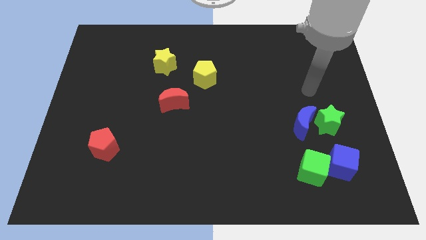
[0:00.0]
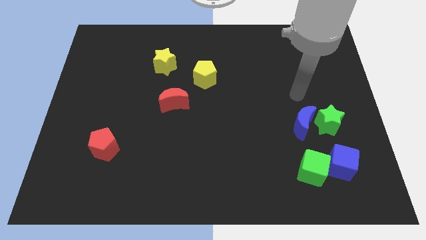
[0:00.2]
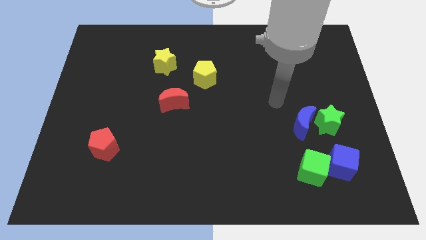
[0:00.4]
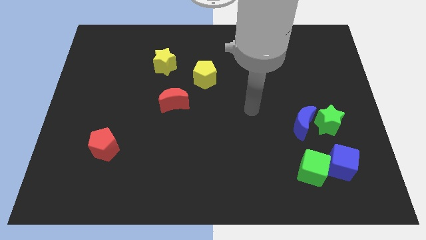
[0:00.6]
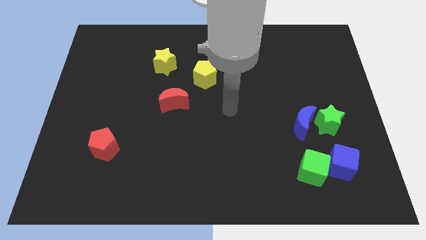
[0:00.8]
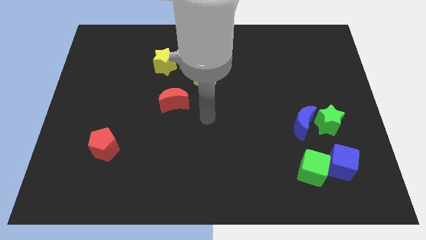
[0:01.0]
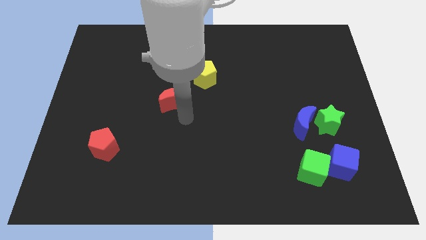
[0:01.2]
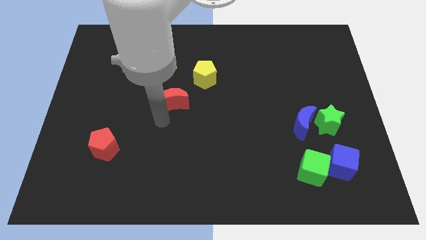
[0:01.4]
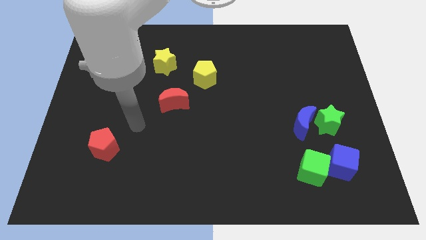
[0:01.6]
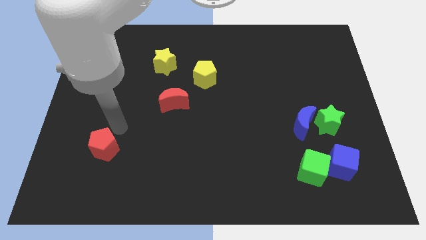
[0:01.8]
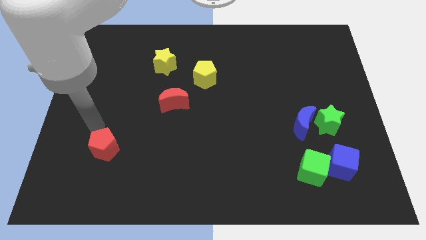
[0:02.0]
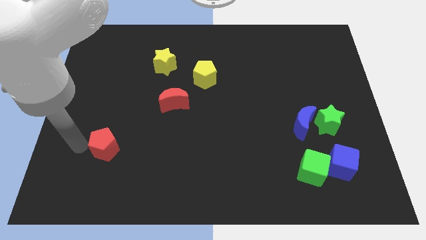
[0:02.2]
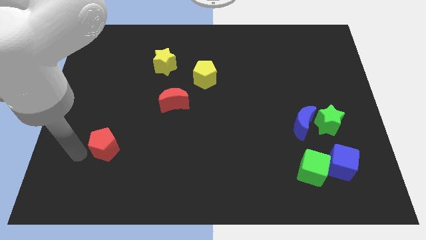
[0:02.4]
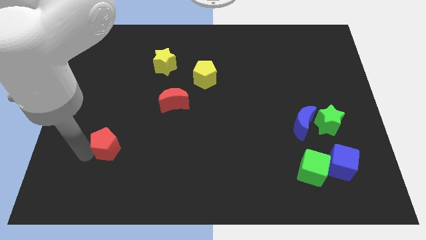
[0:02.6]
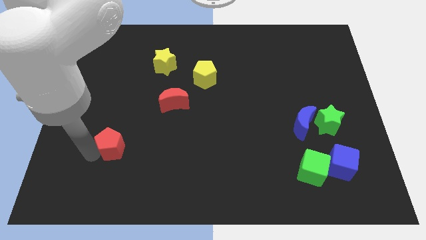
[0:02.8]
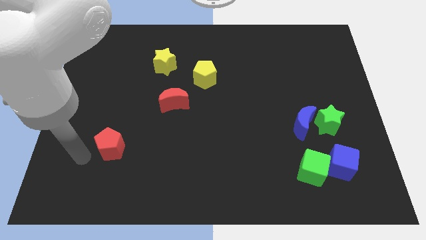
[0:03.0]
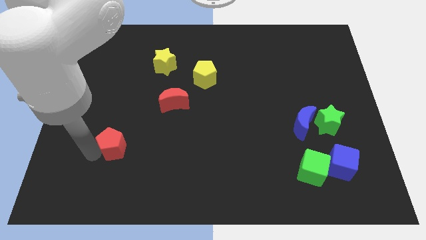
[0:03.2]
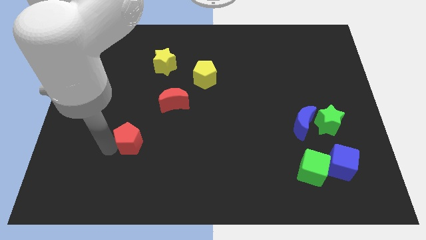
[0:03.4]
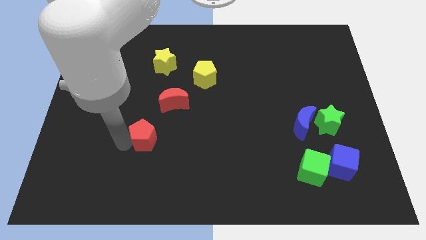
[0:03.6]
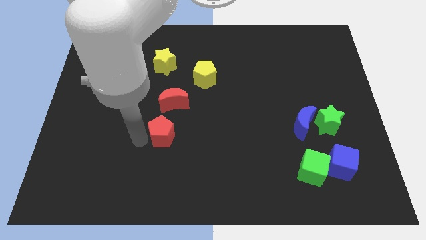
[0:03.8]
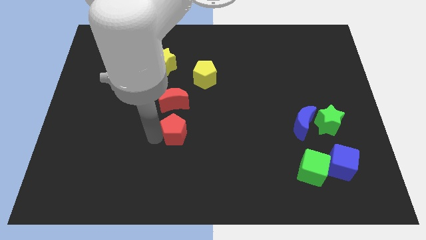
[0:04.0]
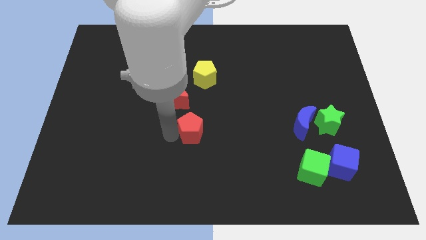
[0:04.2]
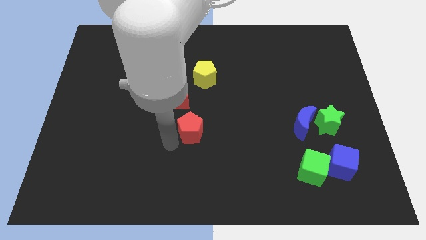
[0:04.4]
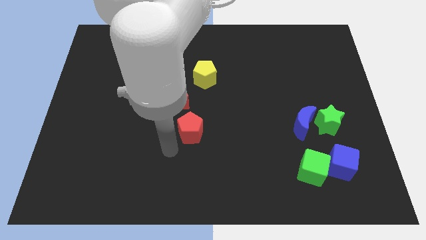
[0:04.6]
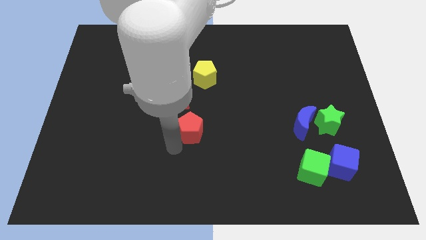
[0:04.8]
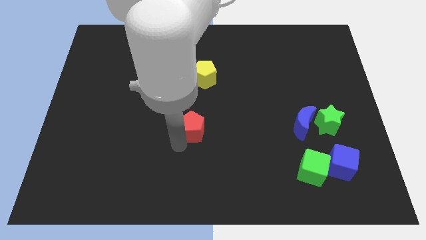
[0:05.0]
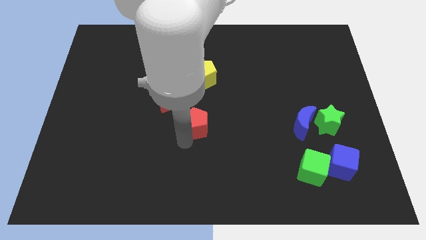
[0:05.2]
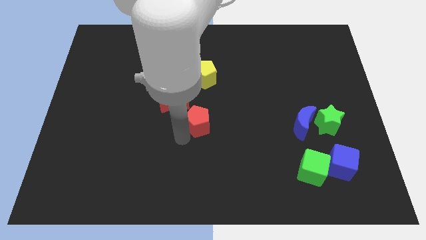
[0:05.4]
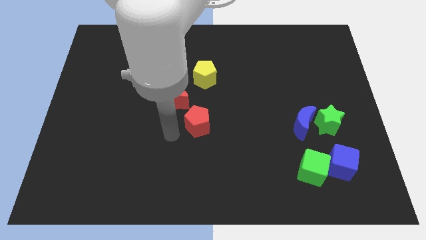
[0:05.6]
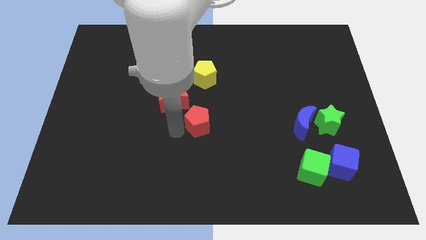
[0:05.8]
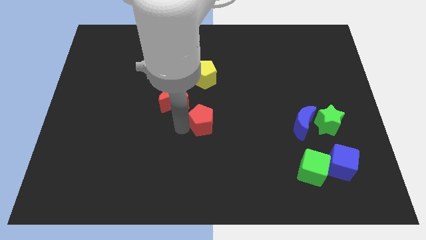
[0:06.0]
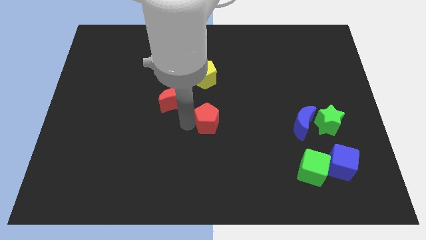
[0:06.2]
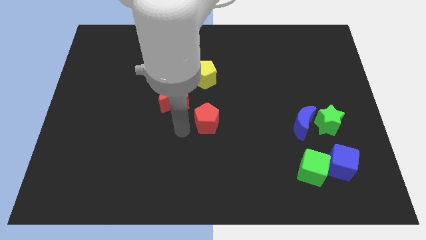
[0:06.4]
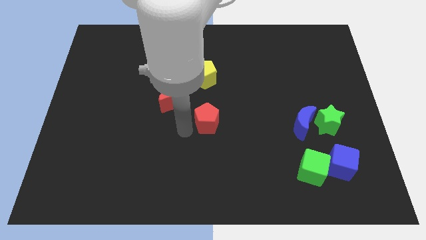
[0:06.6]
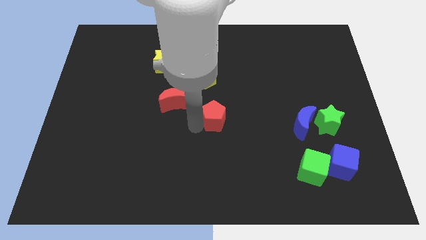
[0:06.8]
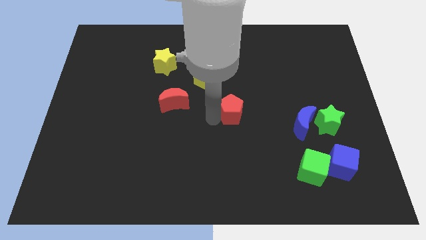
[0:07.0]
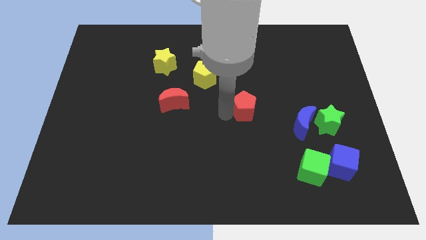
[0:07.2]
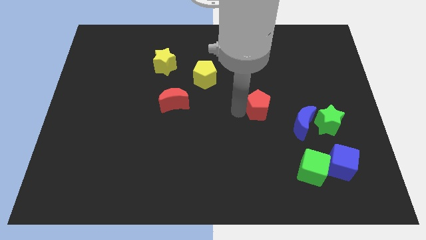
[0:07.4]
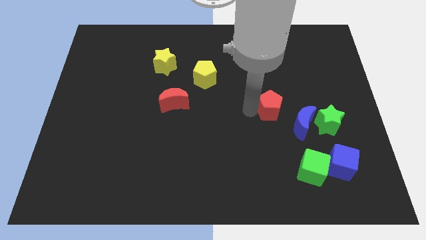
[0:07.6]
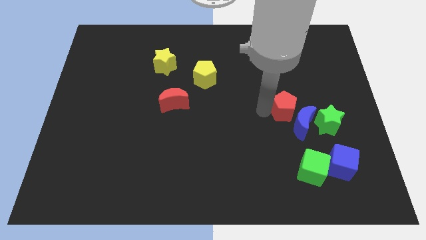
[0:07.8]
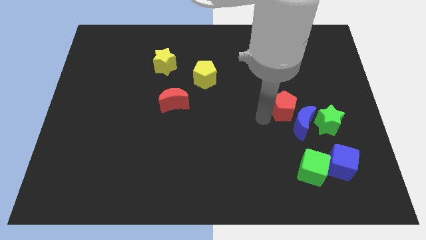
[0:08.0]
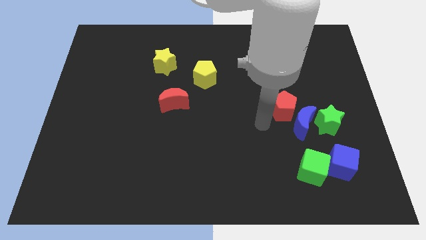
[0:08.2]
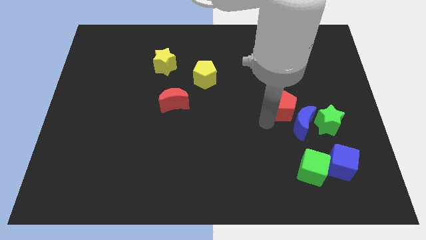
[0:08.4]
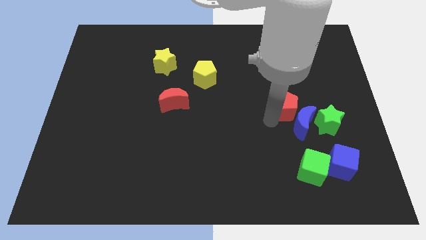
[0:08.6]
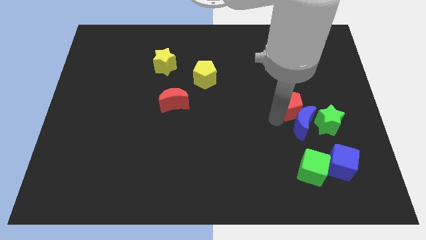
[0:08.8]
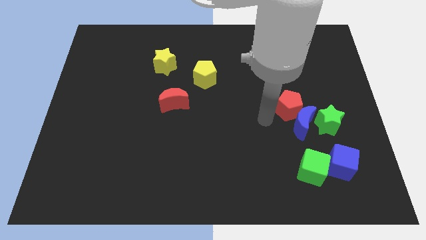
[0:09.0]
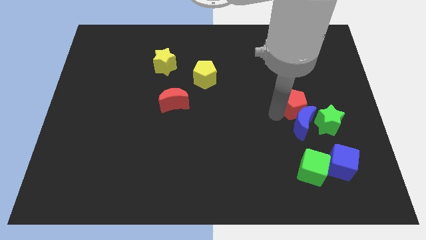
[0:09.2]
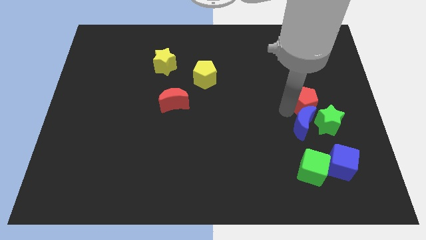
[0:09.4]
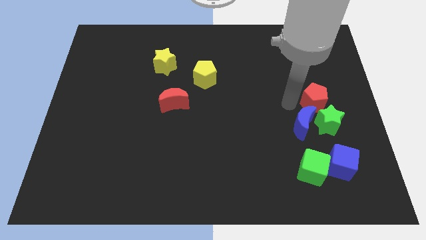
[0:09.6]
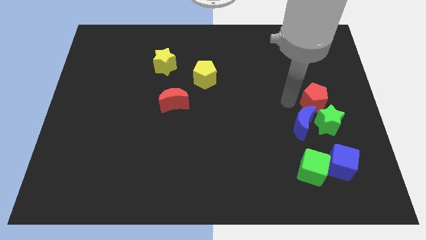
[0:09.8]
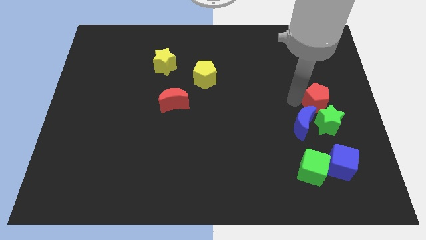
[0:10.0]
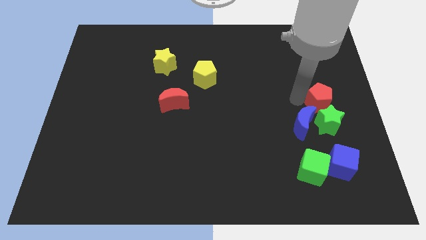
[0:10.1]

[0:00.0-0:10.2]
push the red pentagon to the right side

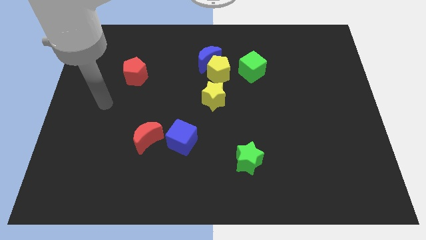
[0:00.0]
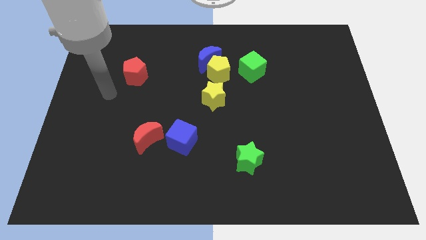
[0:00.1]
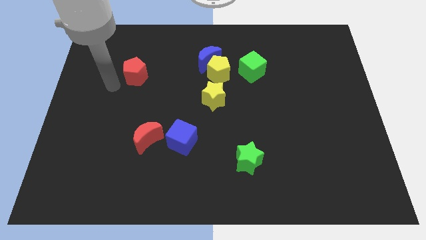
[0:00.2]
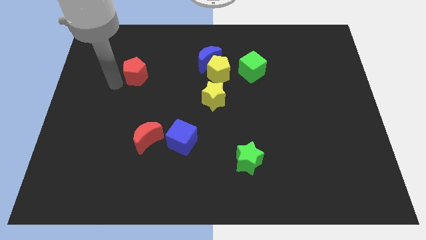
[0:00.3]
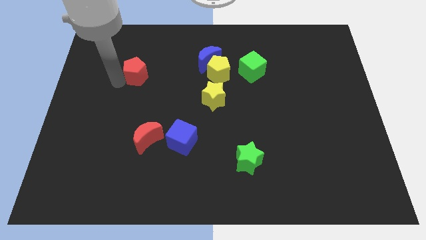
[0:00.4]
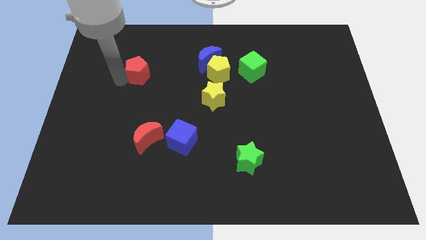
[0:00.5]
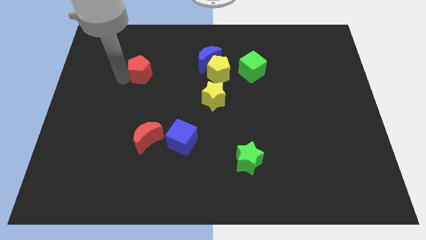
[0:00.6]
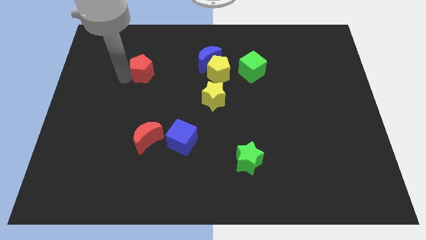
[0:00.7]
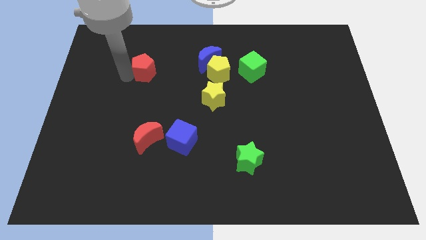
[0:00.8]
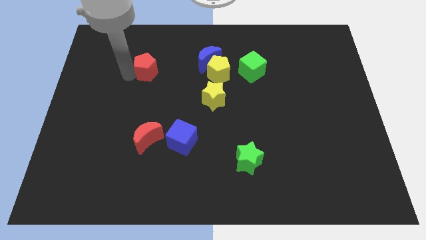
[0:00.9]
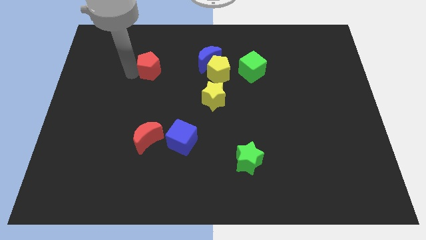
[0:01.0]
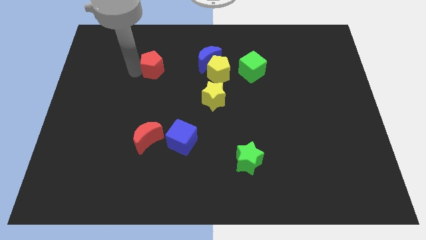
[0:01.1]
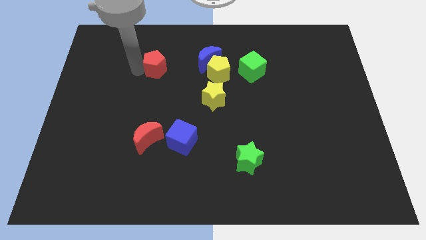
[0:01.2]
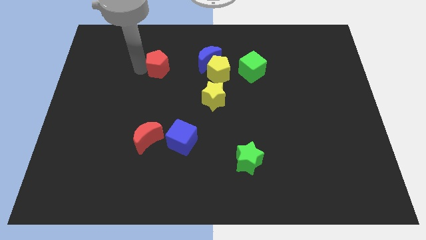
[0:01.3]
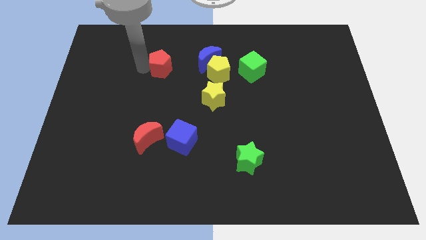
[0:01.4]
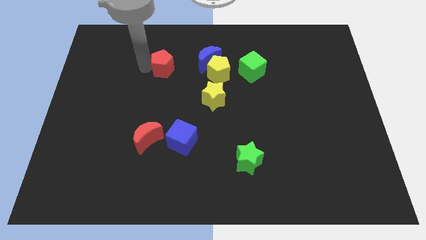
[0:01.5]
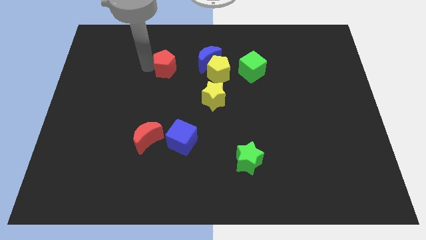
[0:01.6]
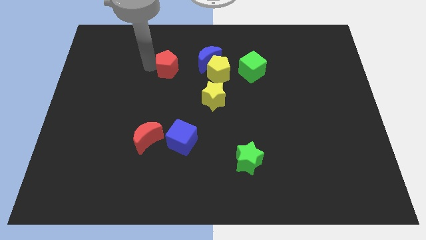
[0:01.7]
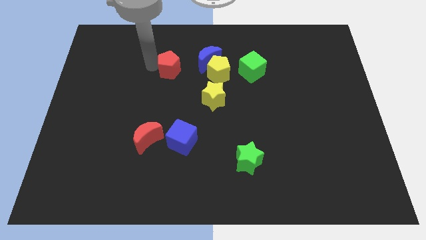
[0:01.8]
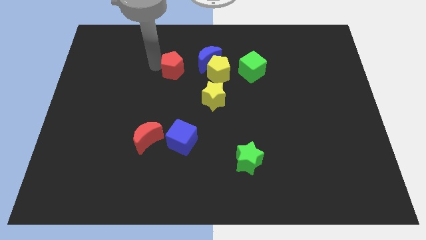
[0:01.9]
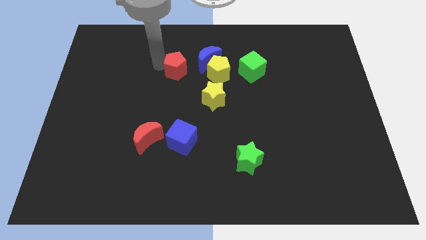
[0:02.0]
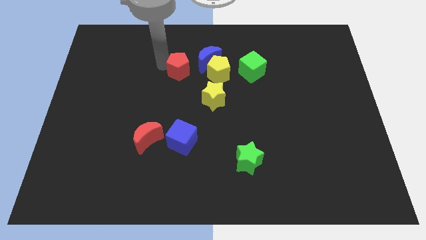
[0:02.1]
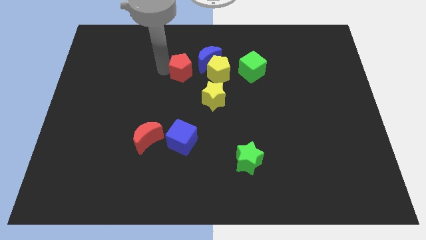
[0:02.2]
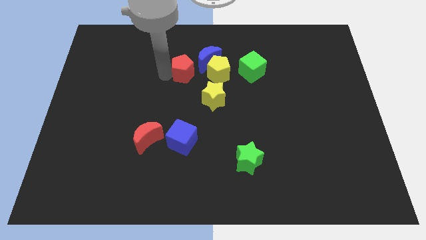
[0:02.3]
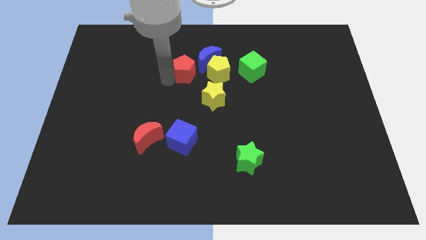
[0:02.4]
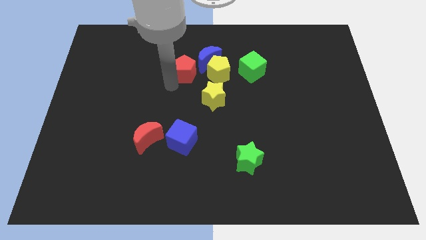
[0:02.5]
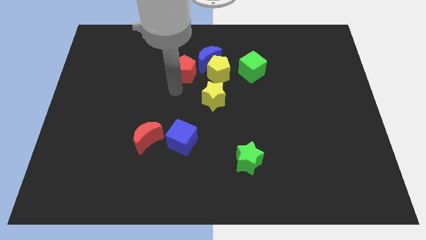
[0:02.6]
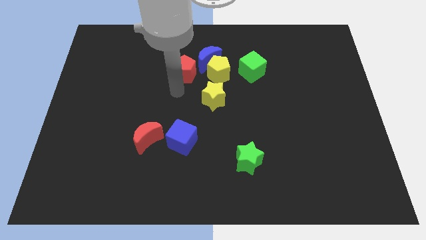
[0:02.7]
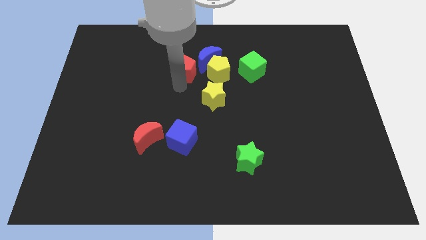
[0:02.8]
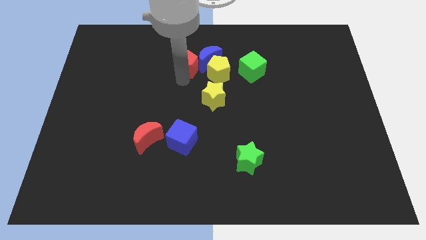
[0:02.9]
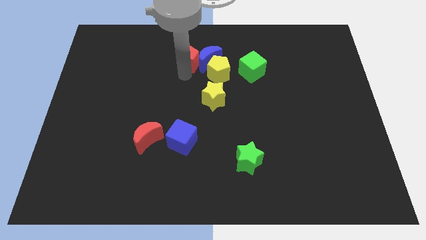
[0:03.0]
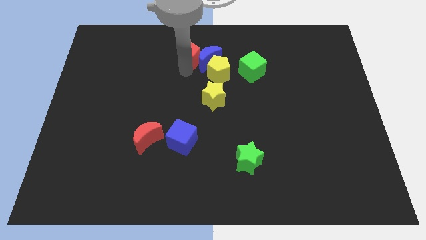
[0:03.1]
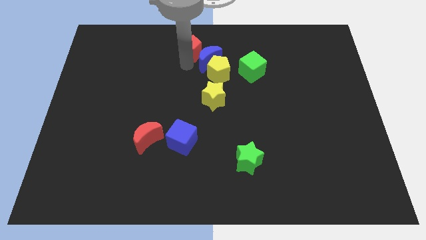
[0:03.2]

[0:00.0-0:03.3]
push the red pentagon to the top side
